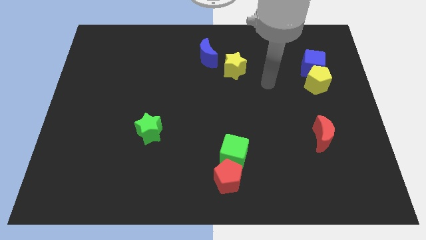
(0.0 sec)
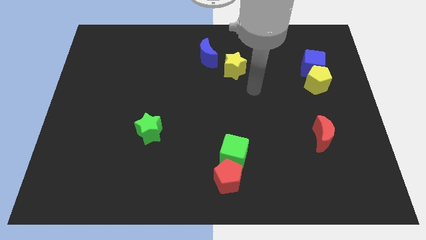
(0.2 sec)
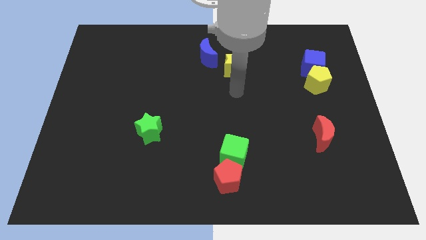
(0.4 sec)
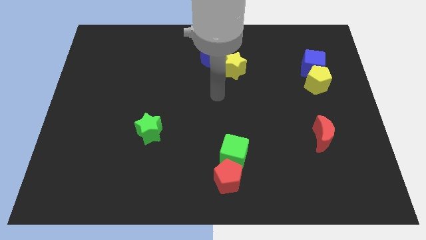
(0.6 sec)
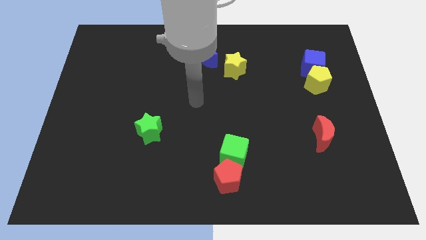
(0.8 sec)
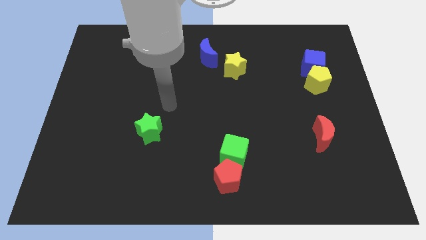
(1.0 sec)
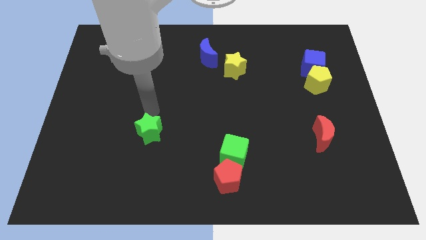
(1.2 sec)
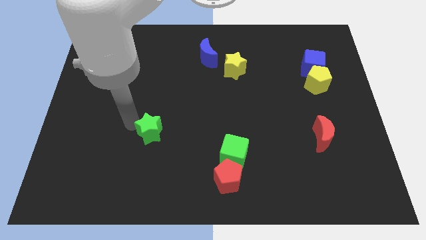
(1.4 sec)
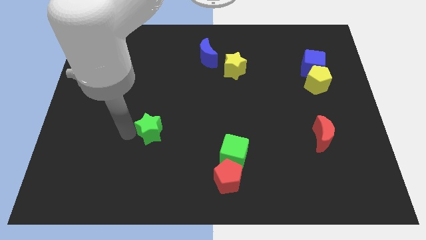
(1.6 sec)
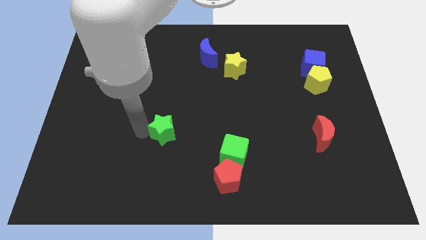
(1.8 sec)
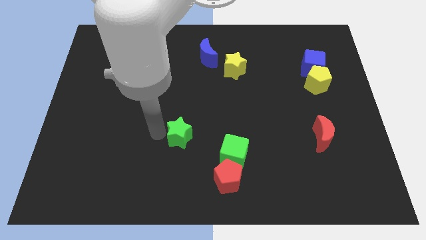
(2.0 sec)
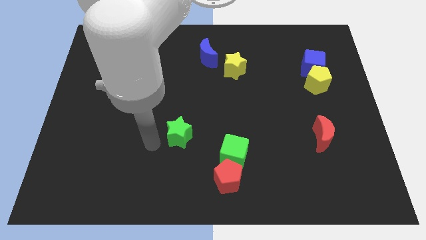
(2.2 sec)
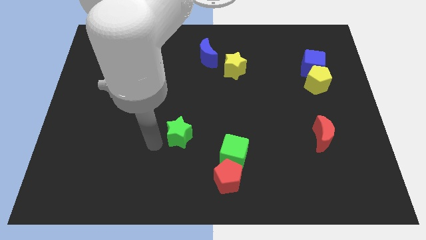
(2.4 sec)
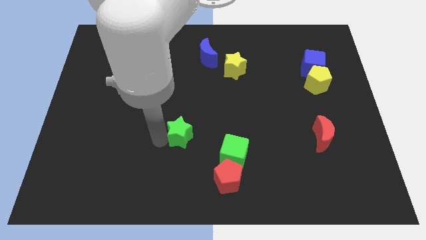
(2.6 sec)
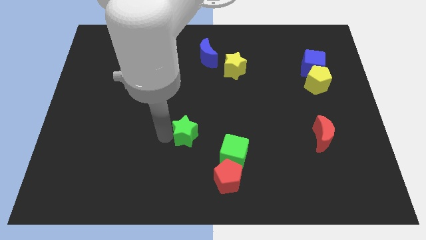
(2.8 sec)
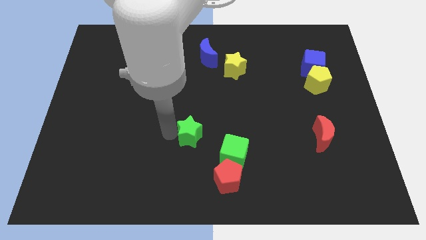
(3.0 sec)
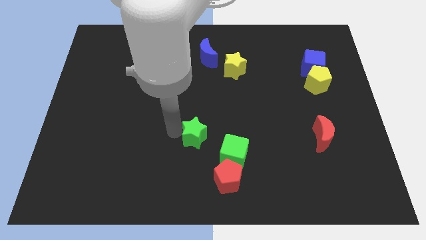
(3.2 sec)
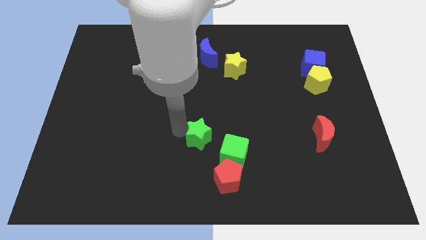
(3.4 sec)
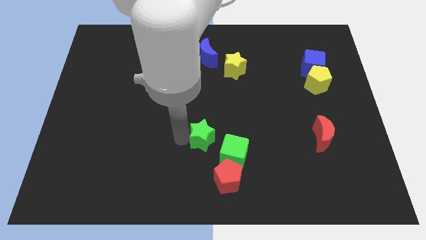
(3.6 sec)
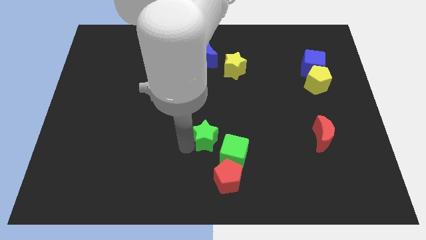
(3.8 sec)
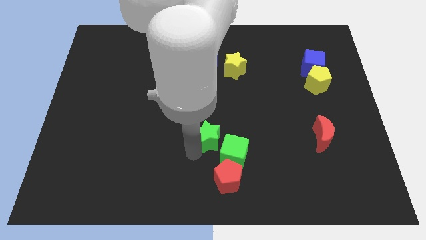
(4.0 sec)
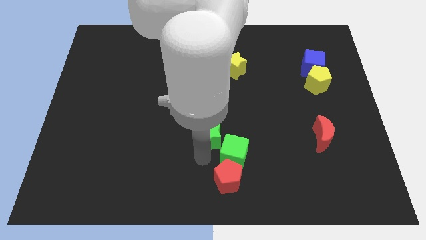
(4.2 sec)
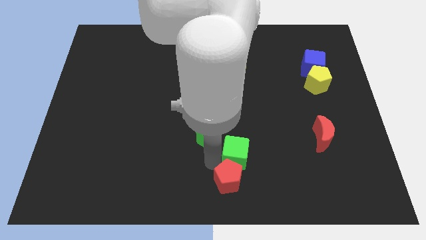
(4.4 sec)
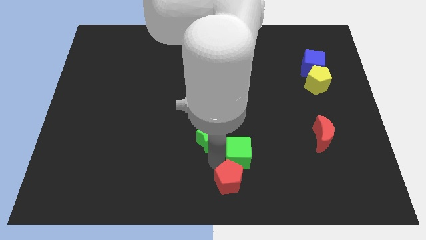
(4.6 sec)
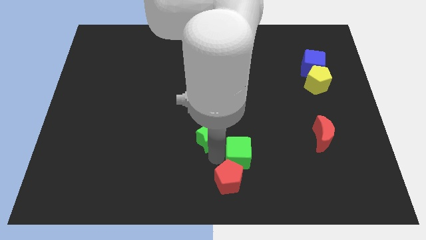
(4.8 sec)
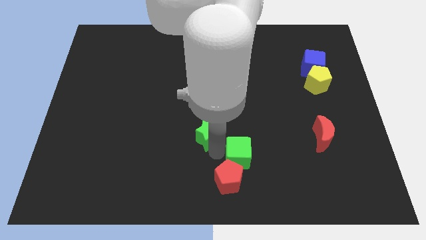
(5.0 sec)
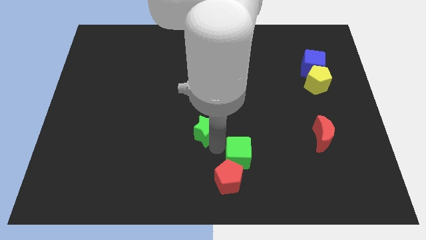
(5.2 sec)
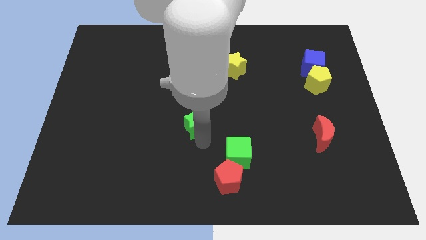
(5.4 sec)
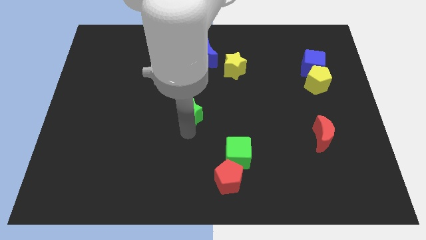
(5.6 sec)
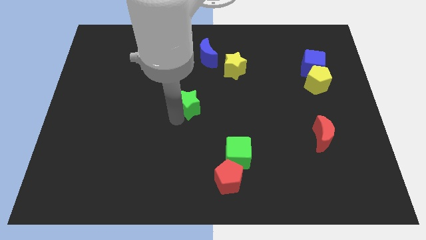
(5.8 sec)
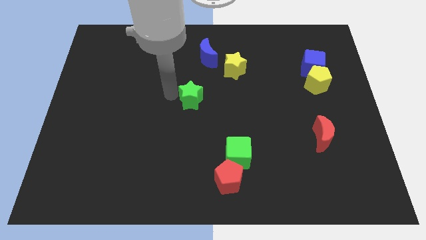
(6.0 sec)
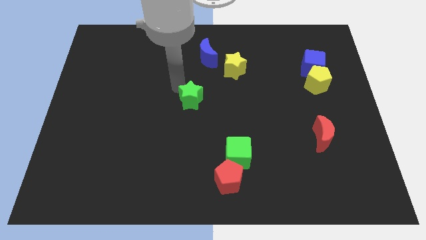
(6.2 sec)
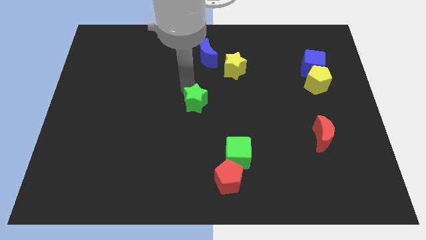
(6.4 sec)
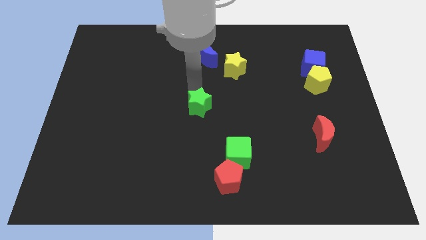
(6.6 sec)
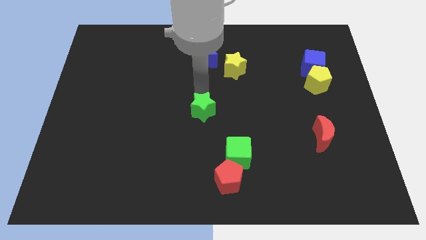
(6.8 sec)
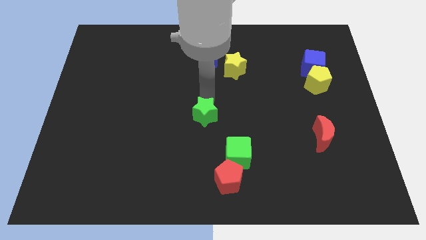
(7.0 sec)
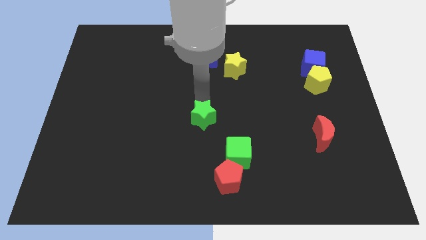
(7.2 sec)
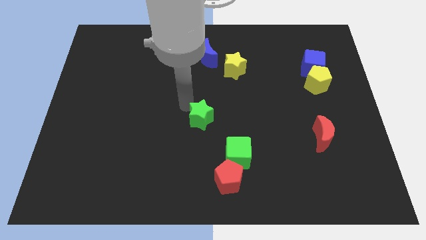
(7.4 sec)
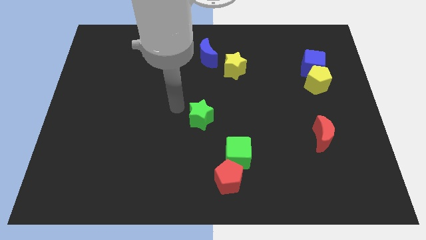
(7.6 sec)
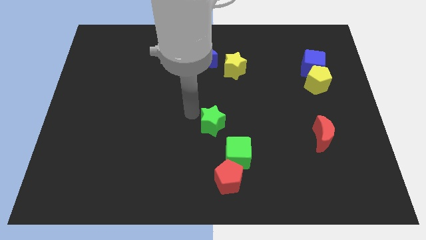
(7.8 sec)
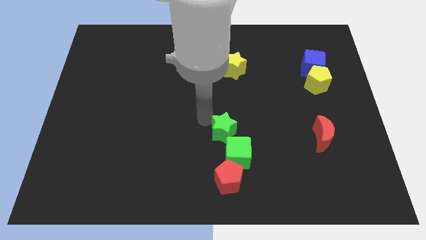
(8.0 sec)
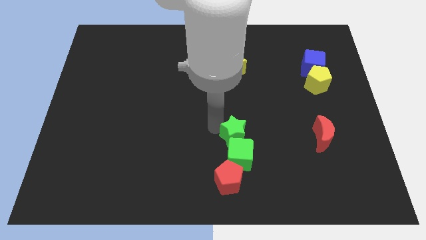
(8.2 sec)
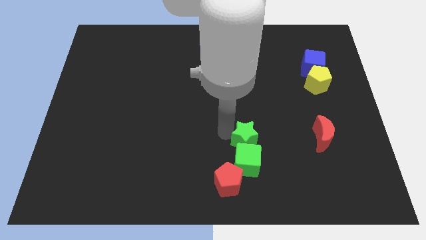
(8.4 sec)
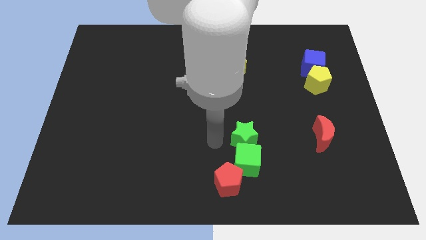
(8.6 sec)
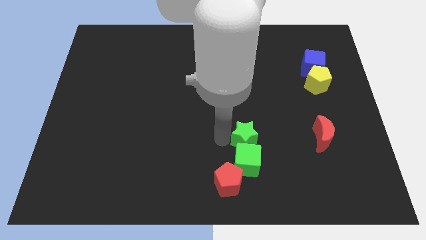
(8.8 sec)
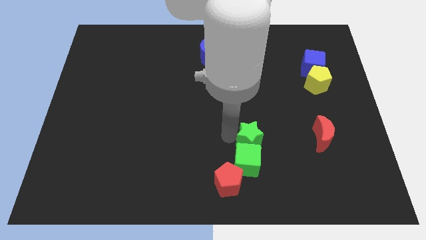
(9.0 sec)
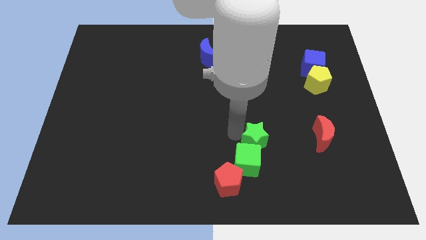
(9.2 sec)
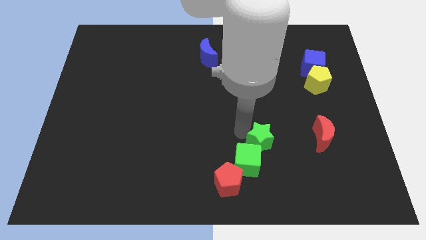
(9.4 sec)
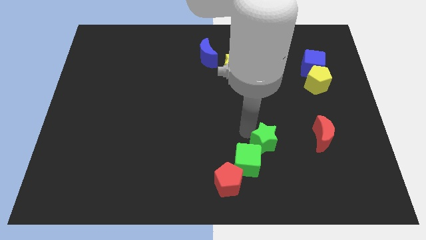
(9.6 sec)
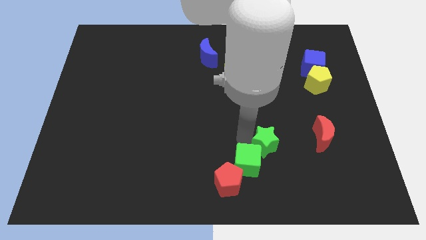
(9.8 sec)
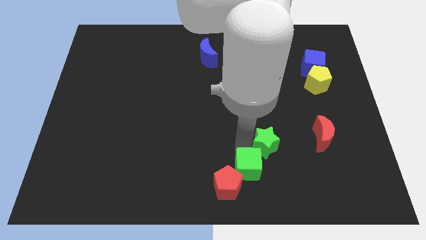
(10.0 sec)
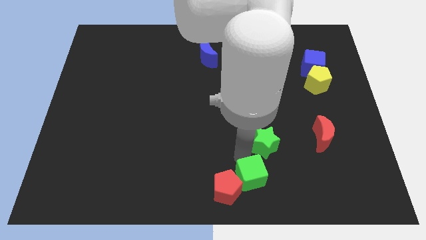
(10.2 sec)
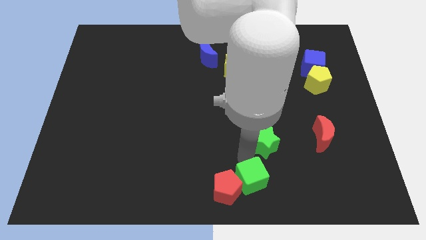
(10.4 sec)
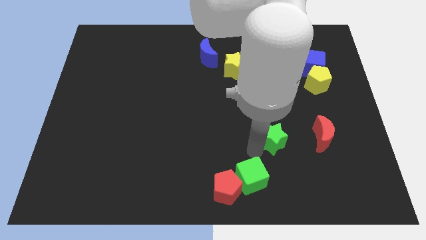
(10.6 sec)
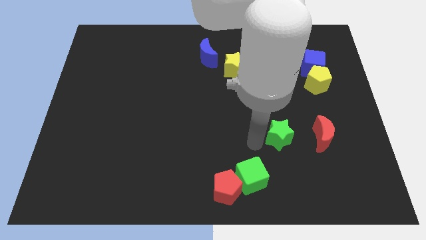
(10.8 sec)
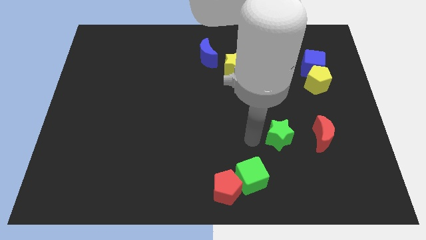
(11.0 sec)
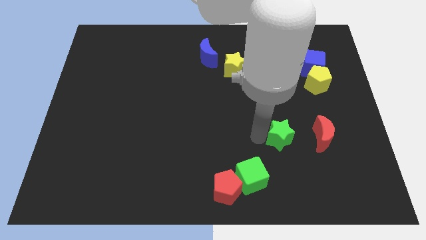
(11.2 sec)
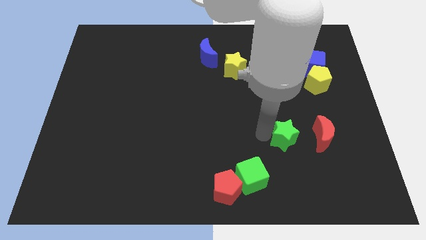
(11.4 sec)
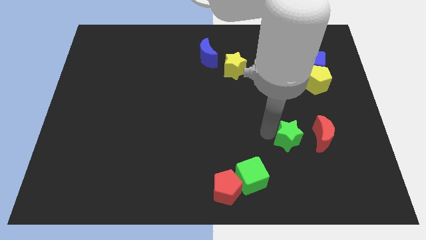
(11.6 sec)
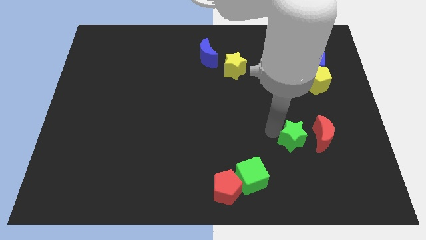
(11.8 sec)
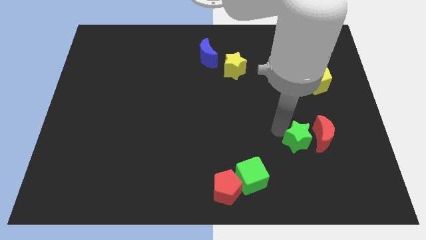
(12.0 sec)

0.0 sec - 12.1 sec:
move the green star towards the red moon

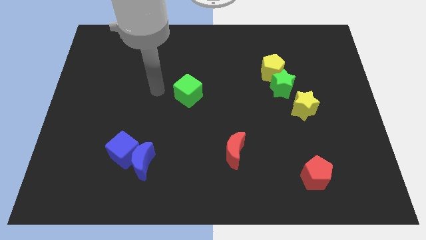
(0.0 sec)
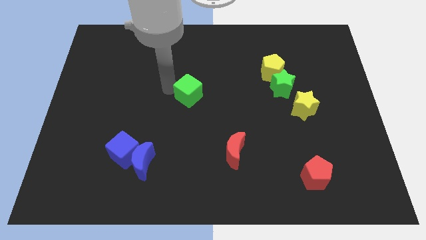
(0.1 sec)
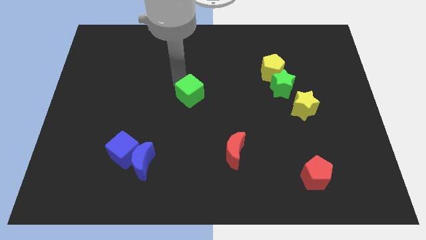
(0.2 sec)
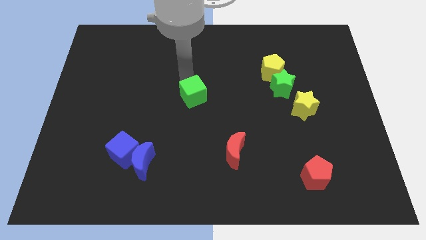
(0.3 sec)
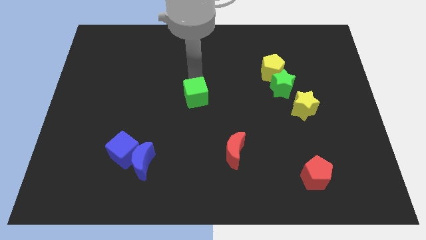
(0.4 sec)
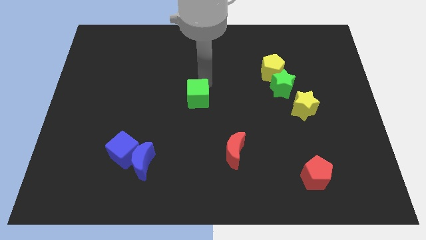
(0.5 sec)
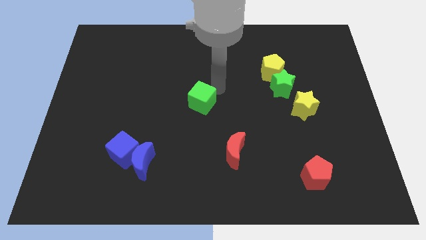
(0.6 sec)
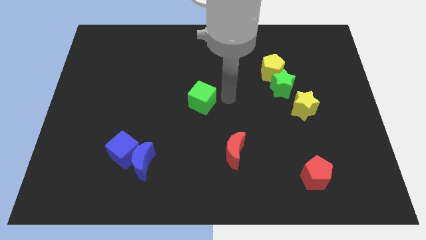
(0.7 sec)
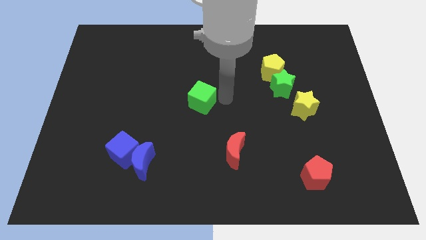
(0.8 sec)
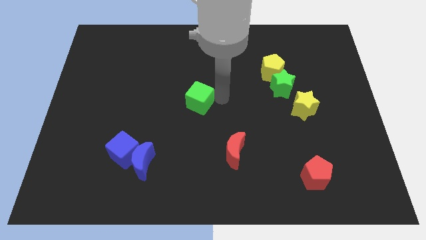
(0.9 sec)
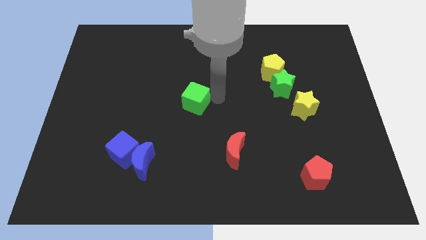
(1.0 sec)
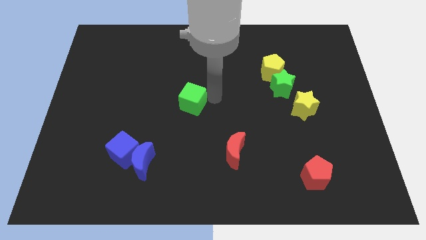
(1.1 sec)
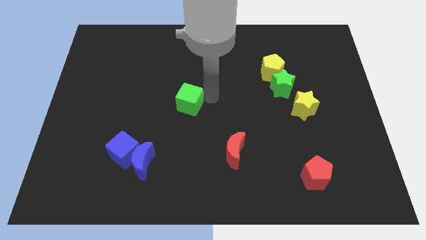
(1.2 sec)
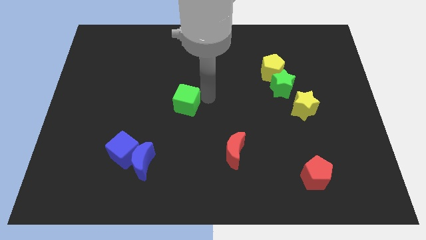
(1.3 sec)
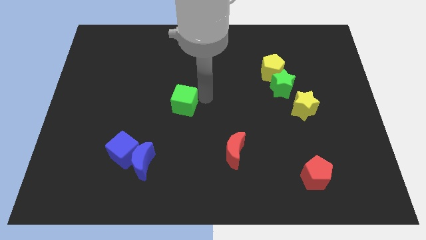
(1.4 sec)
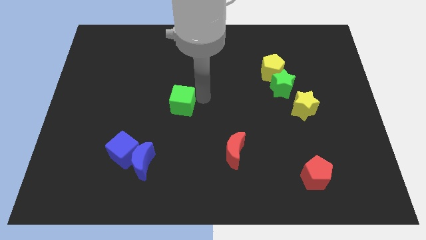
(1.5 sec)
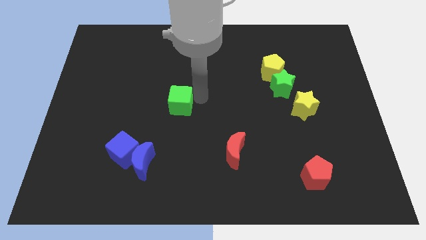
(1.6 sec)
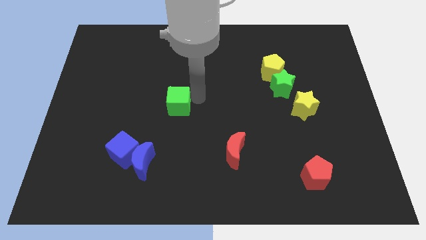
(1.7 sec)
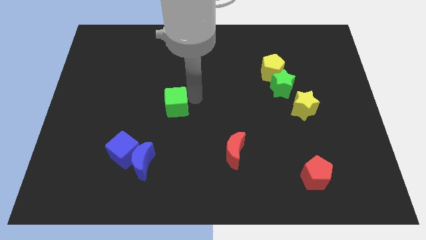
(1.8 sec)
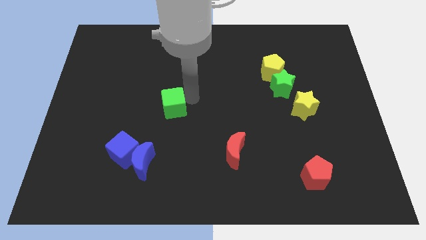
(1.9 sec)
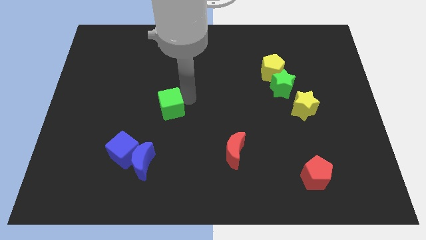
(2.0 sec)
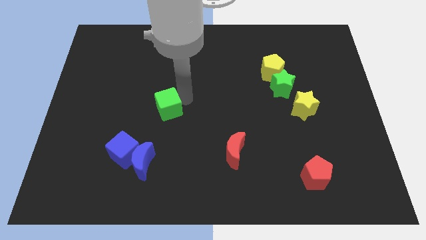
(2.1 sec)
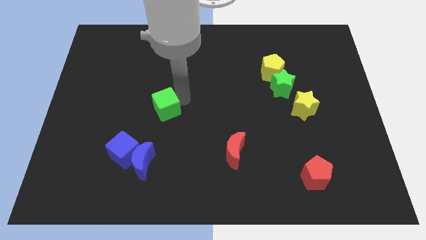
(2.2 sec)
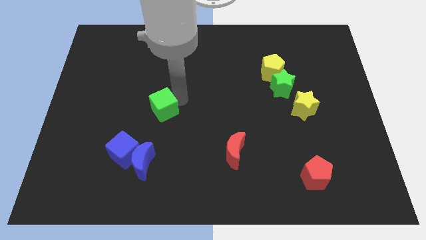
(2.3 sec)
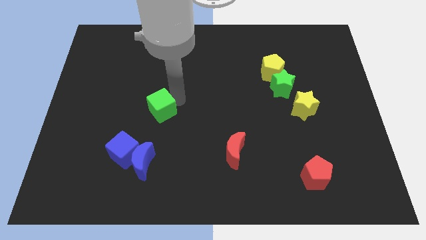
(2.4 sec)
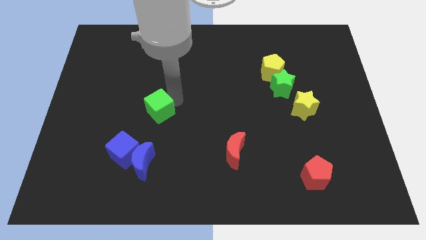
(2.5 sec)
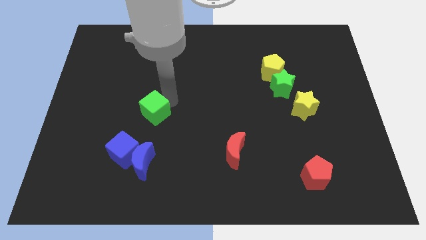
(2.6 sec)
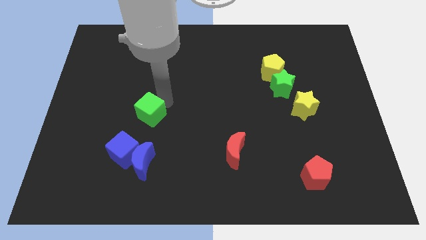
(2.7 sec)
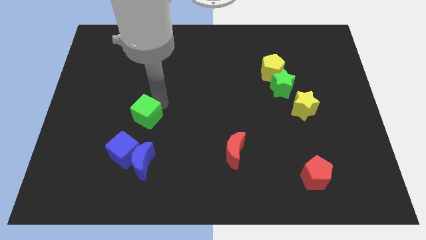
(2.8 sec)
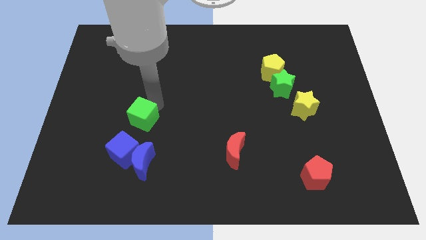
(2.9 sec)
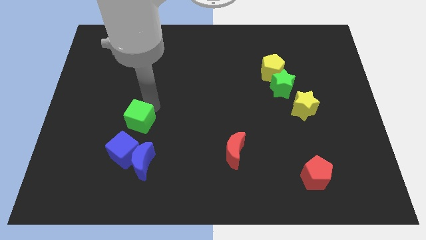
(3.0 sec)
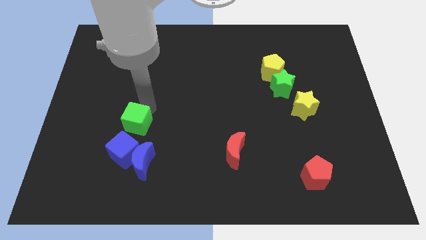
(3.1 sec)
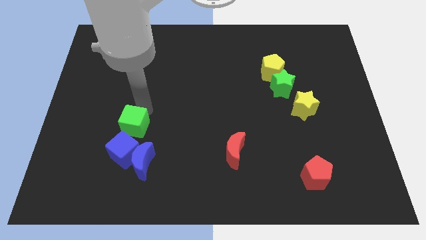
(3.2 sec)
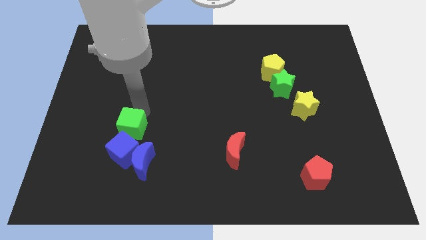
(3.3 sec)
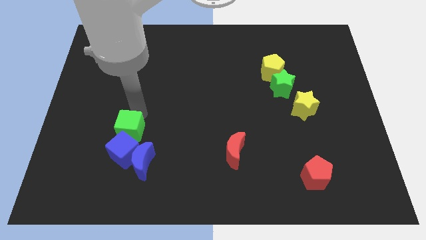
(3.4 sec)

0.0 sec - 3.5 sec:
move the green cube close to the blue cube
